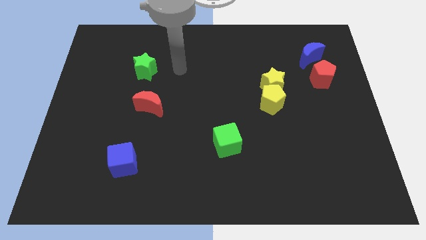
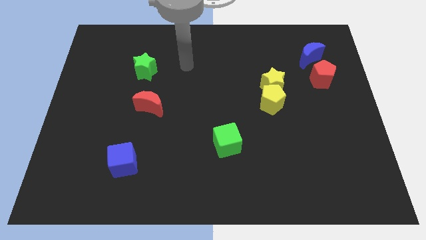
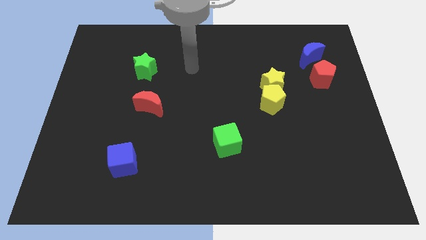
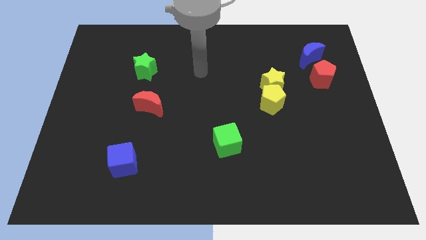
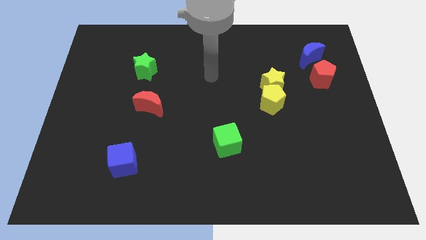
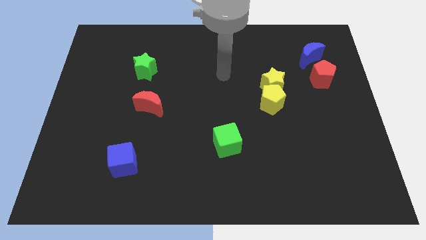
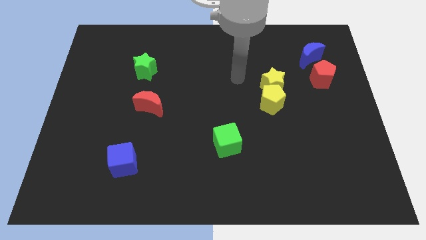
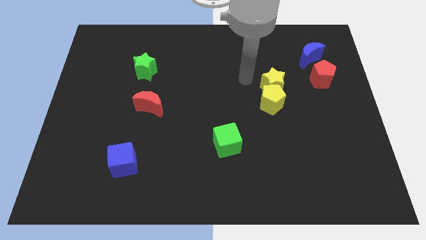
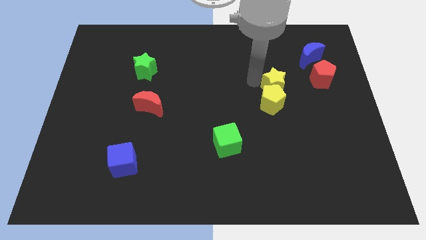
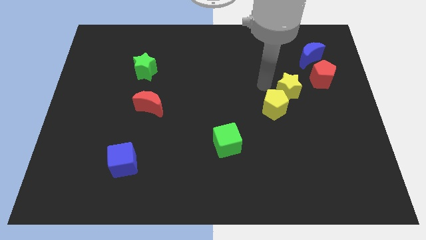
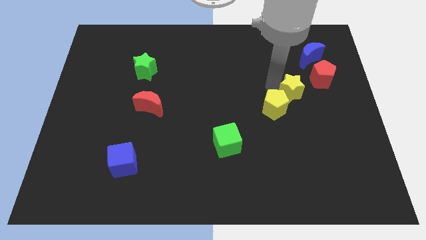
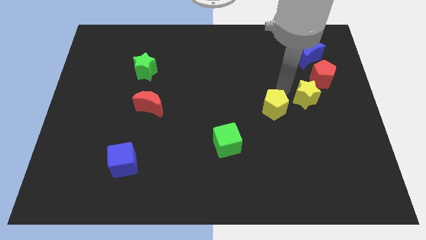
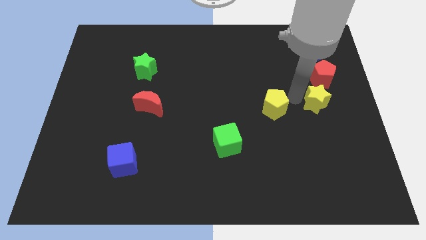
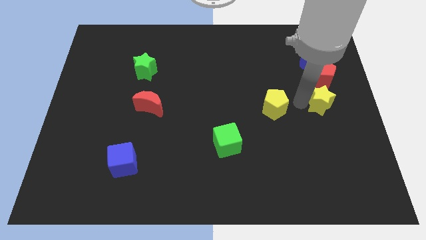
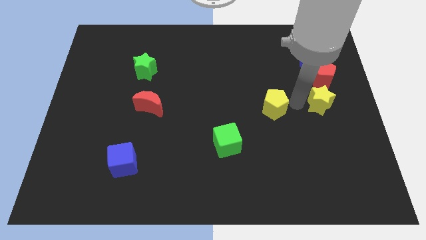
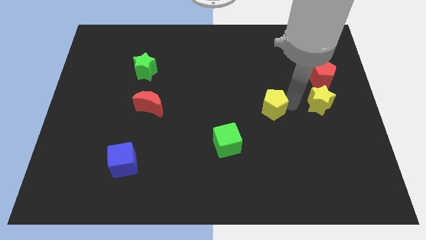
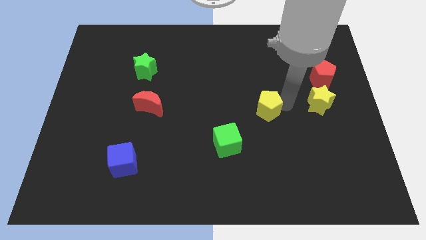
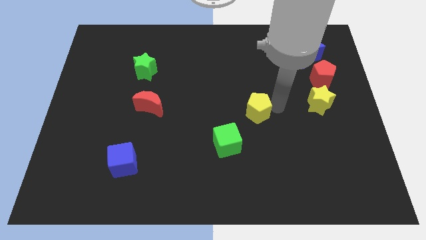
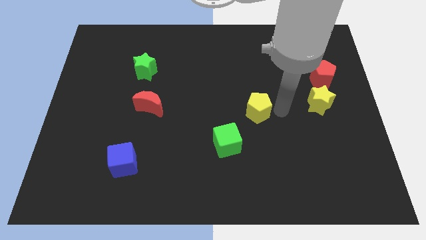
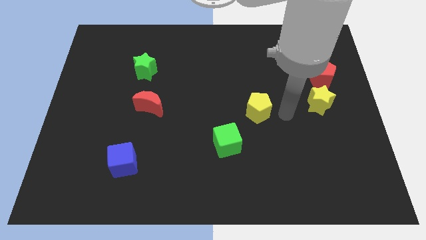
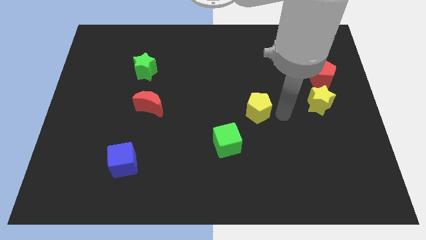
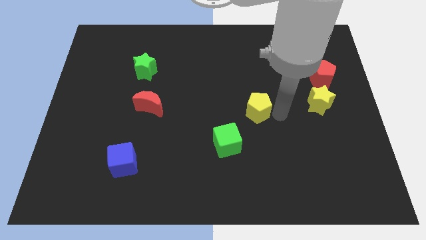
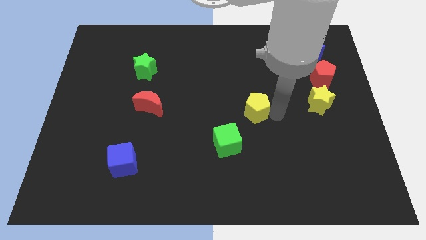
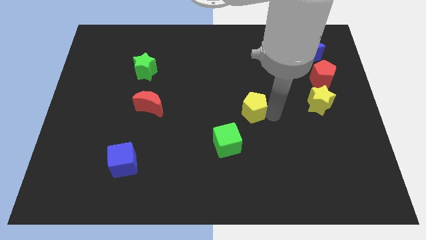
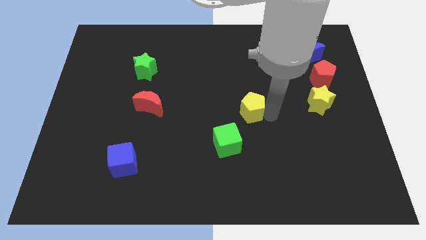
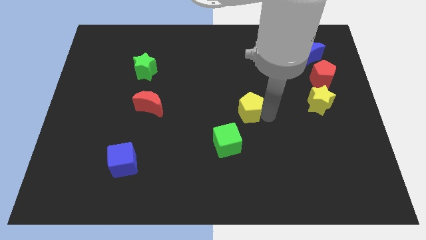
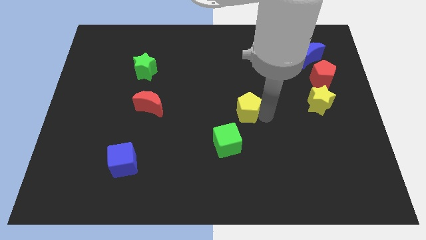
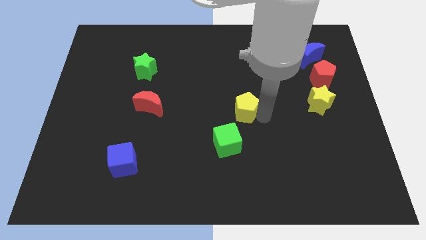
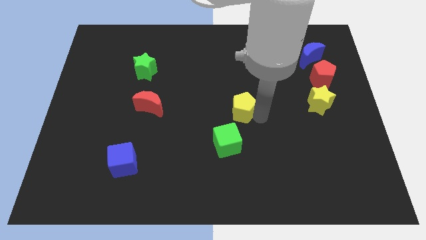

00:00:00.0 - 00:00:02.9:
move the yellow pentagon left a bit

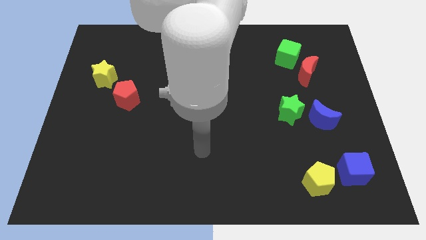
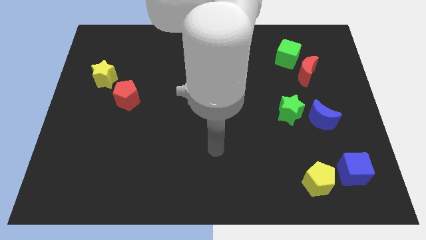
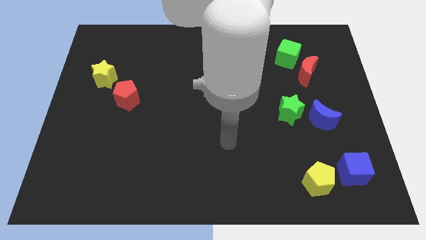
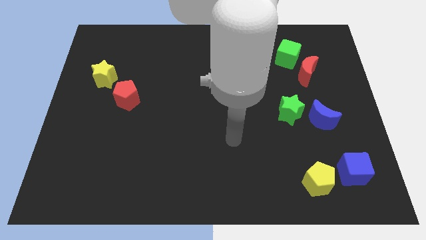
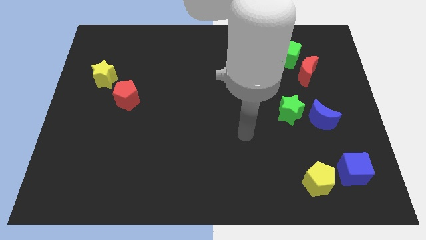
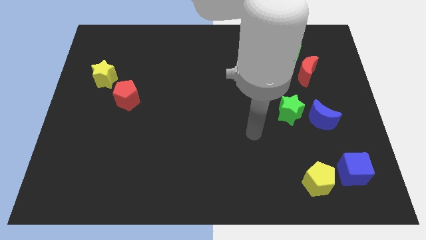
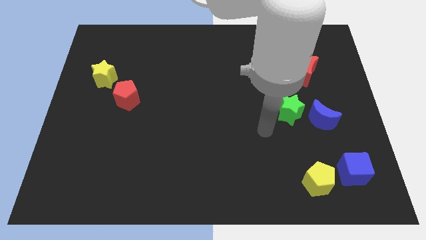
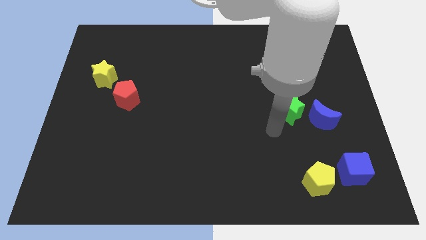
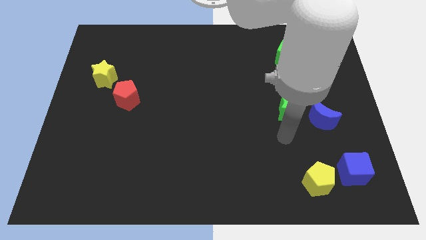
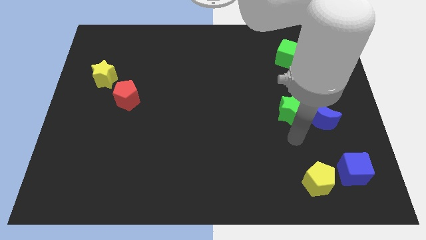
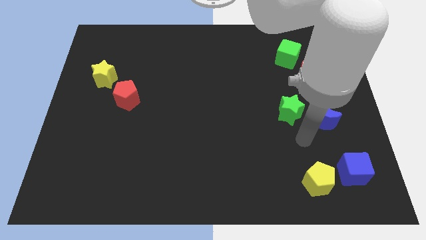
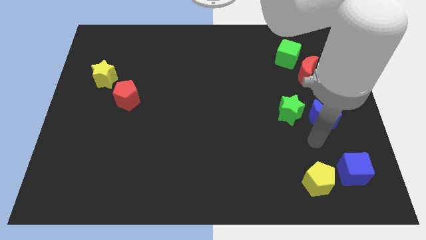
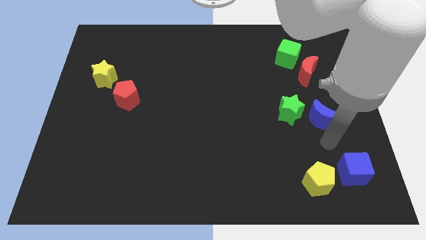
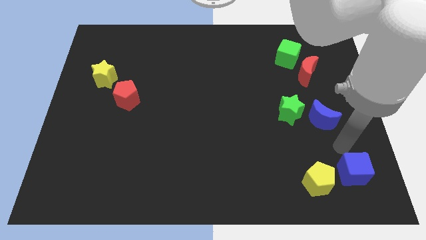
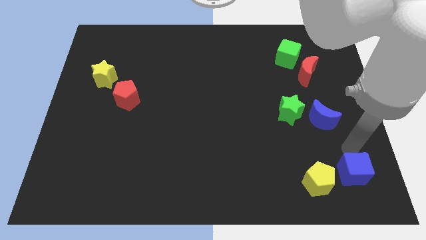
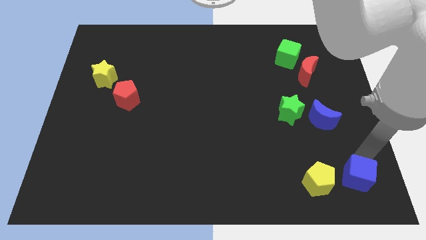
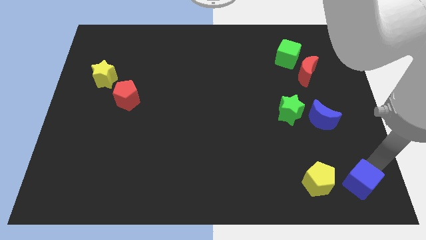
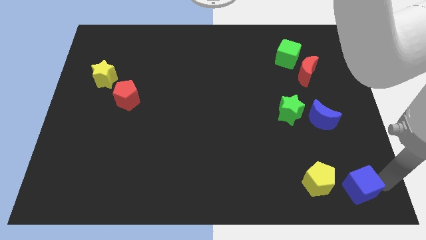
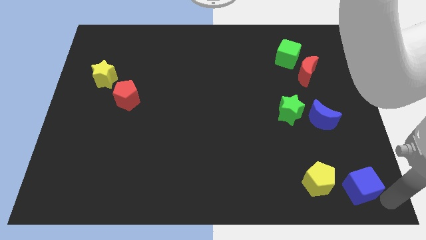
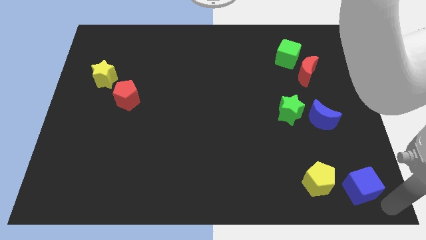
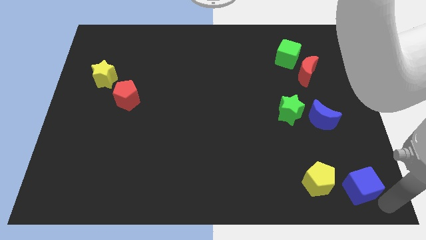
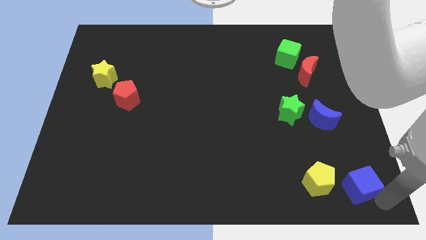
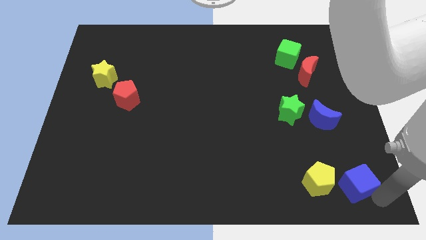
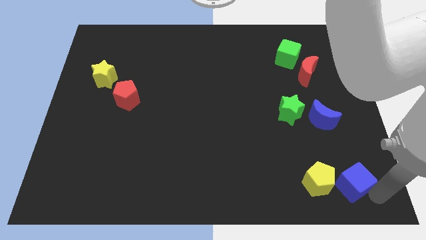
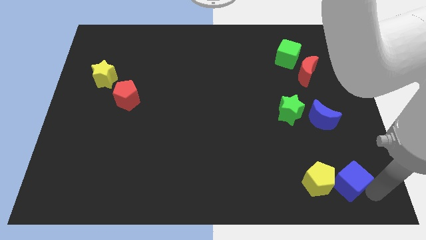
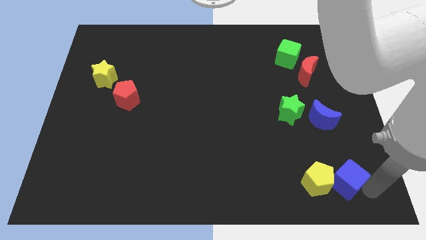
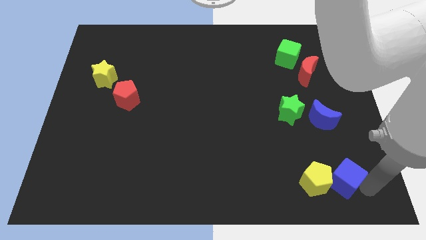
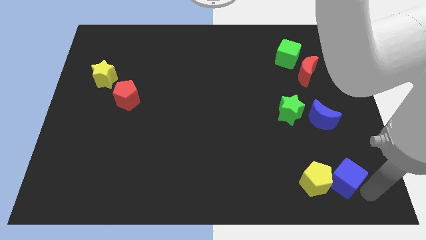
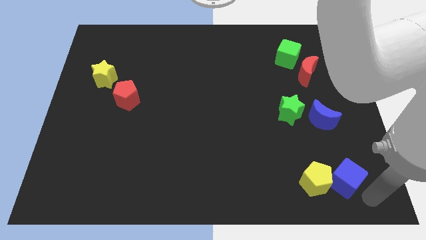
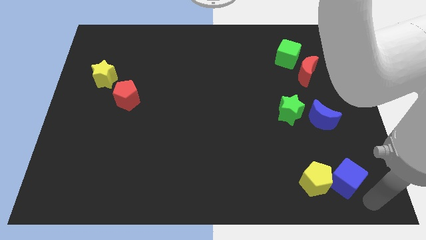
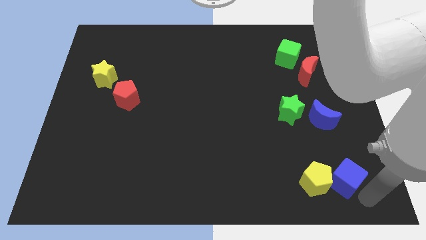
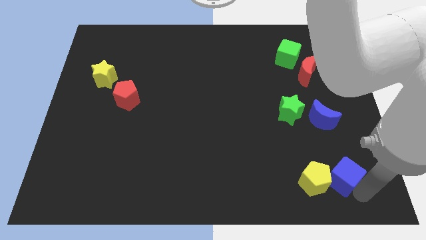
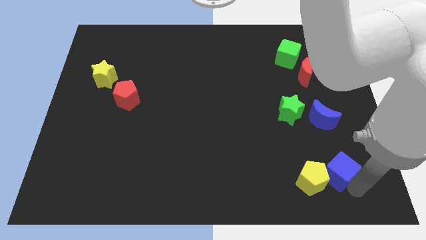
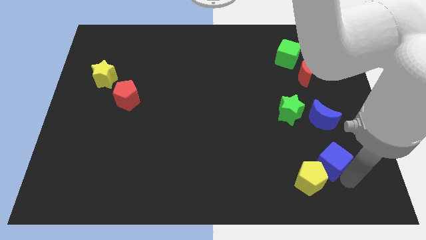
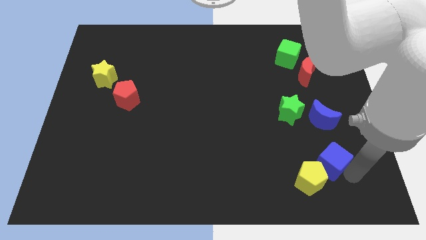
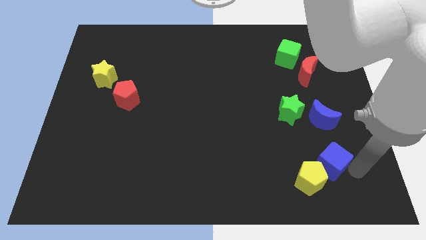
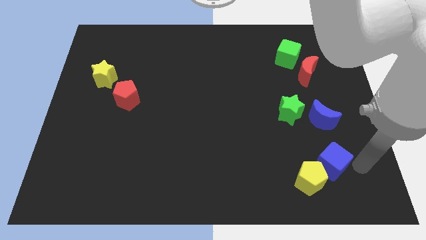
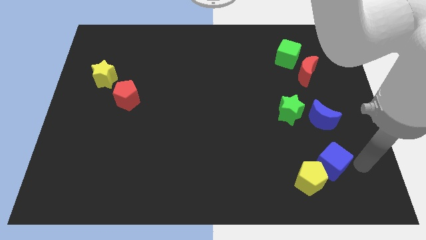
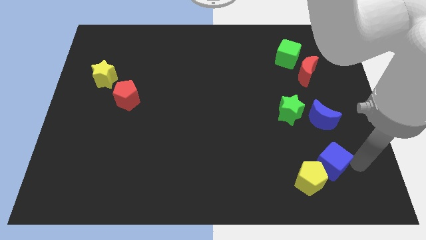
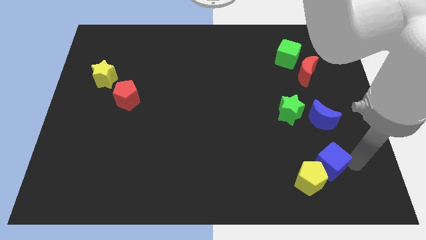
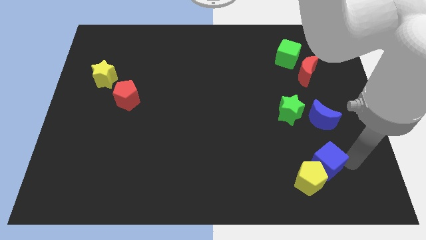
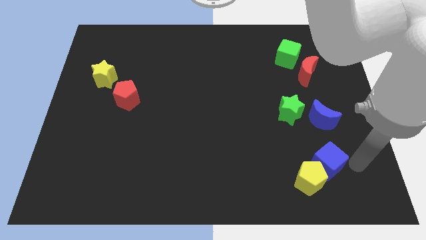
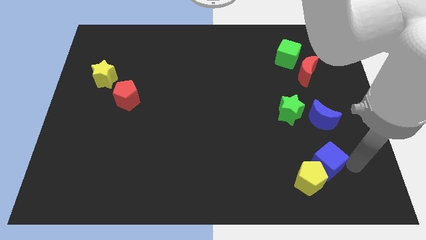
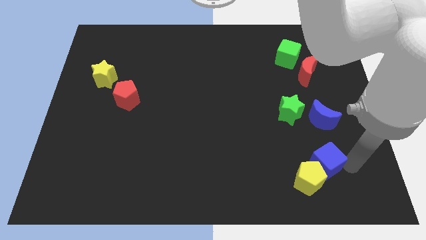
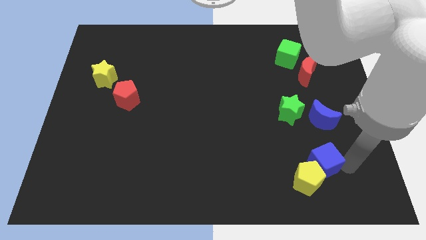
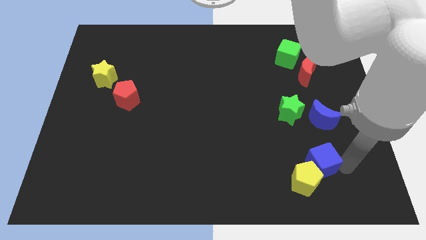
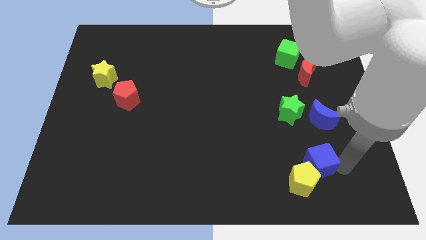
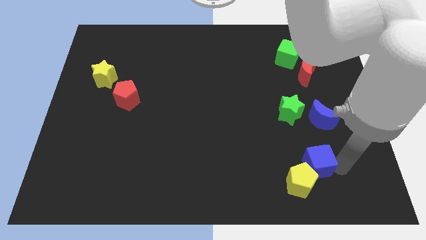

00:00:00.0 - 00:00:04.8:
push the blue cube left a bit
